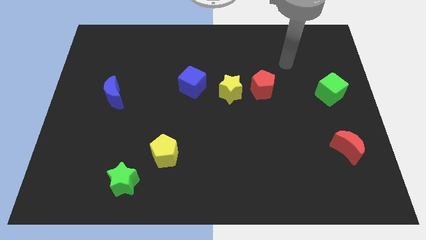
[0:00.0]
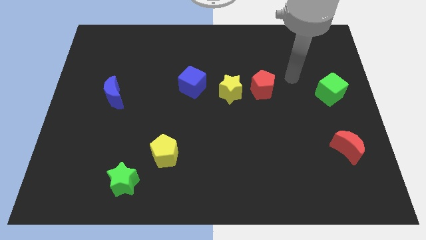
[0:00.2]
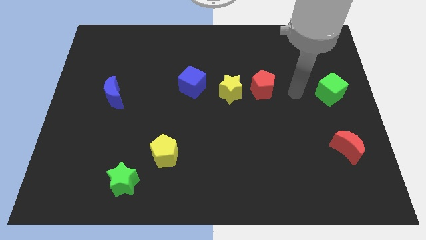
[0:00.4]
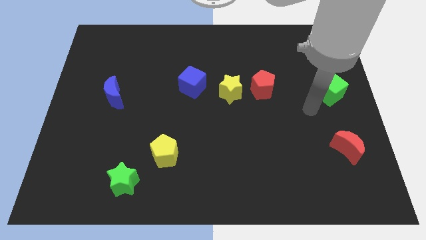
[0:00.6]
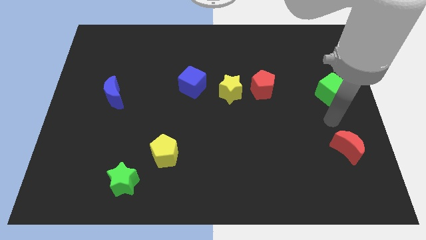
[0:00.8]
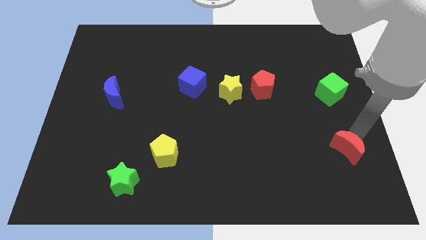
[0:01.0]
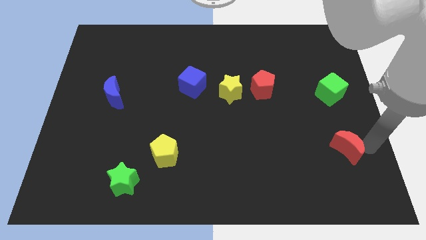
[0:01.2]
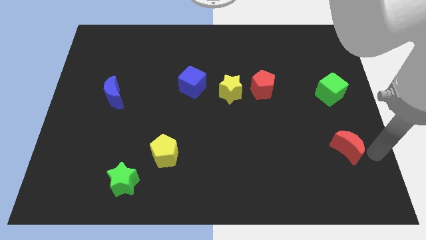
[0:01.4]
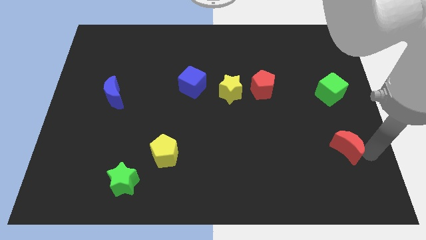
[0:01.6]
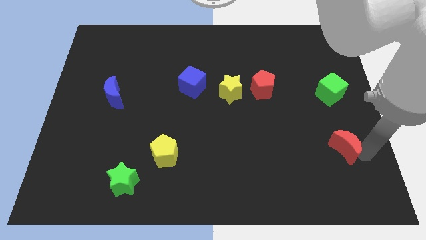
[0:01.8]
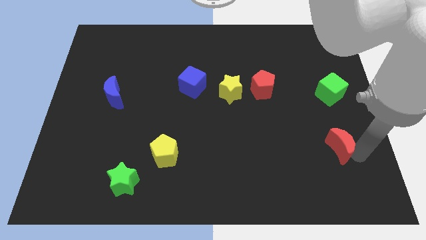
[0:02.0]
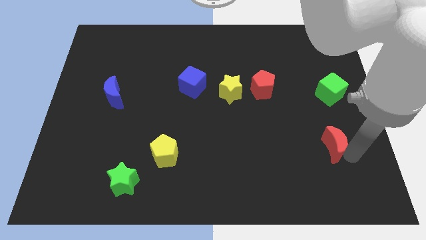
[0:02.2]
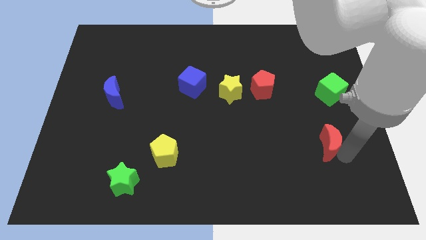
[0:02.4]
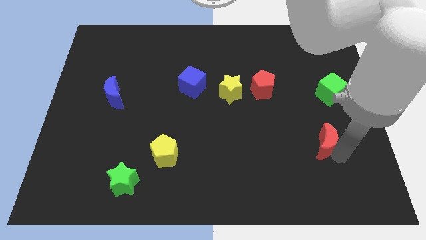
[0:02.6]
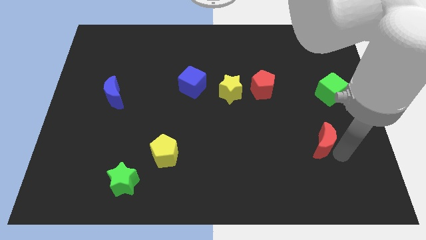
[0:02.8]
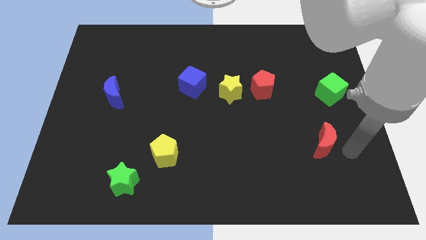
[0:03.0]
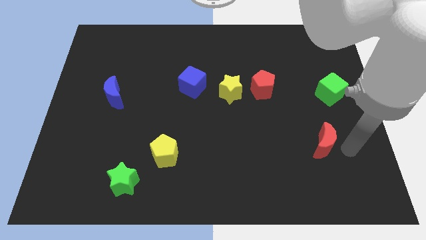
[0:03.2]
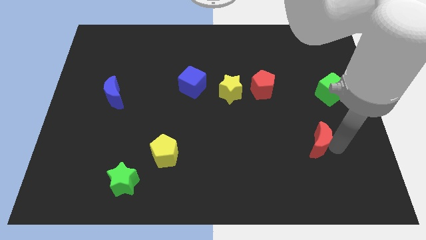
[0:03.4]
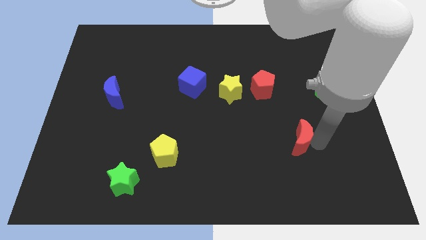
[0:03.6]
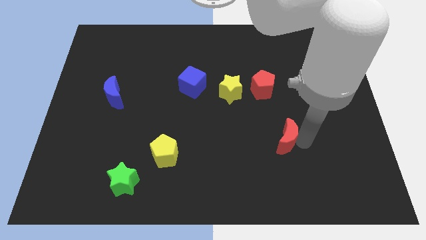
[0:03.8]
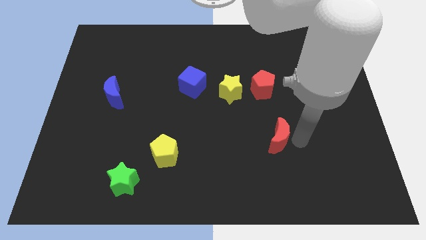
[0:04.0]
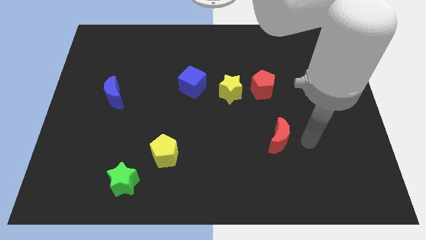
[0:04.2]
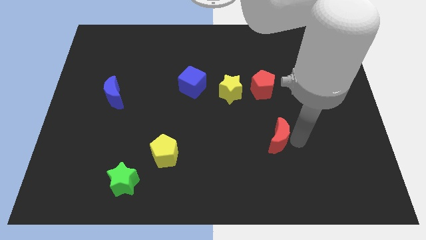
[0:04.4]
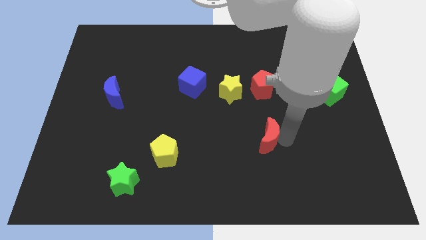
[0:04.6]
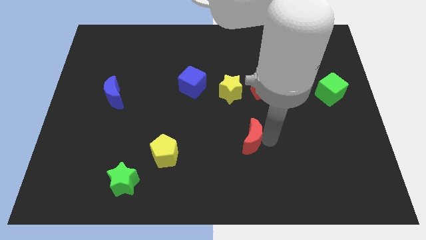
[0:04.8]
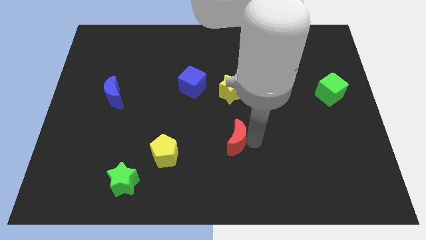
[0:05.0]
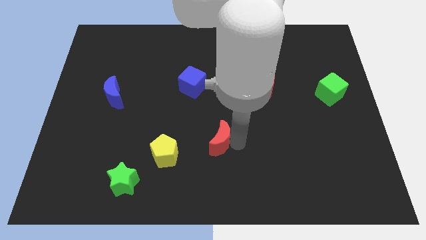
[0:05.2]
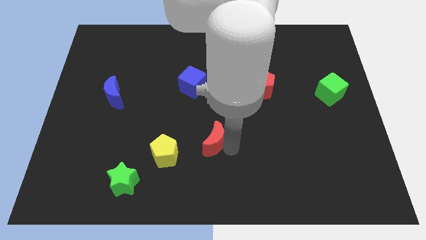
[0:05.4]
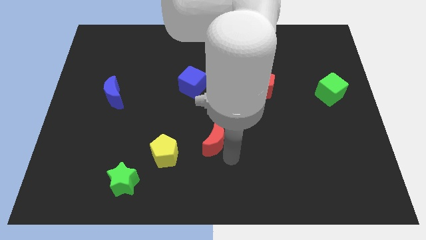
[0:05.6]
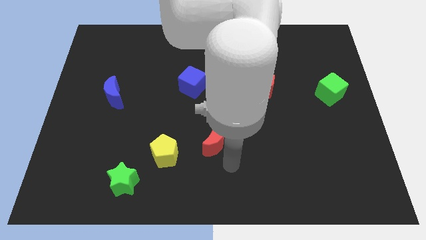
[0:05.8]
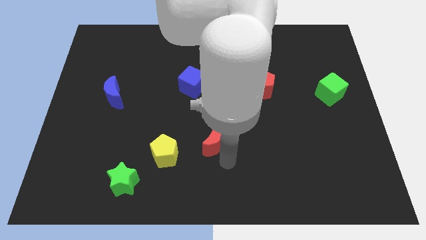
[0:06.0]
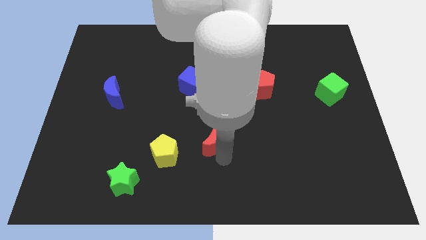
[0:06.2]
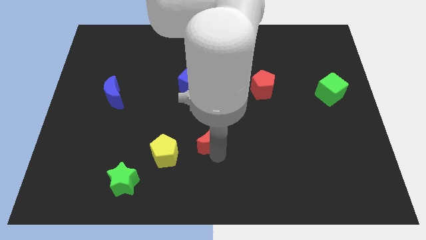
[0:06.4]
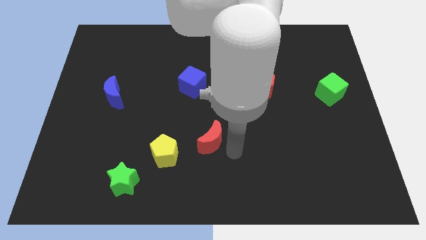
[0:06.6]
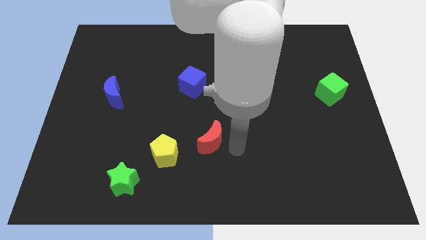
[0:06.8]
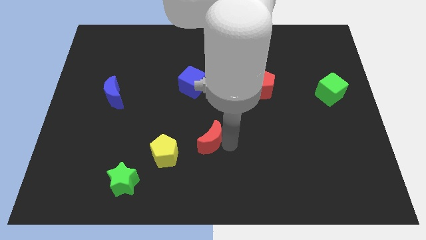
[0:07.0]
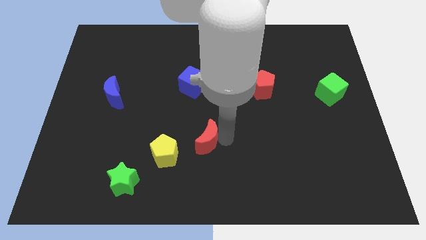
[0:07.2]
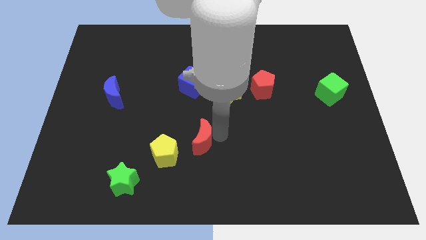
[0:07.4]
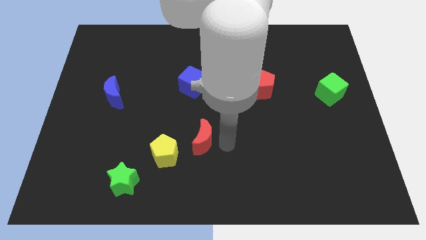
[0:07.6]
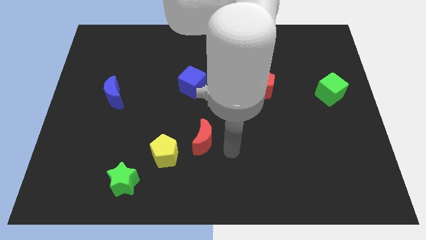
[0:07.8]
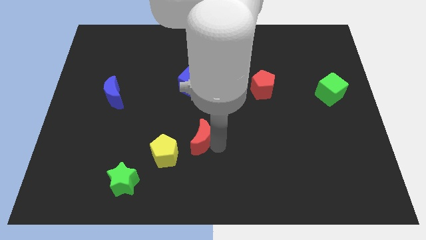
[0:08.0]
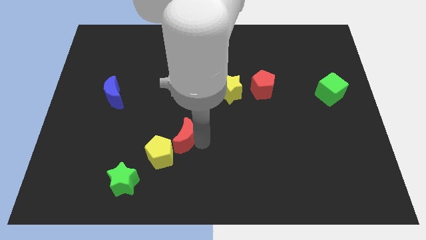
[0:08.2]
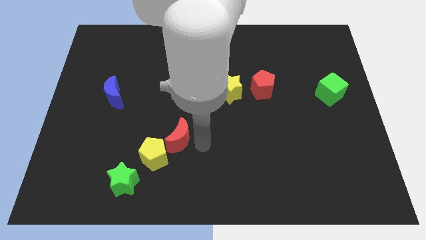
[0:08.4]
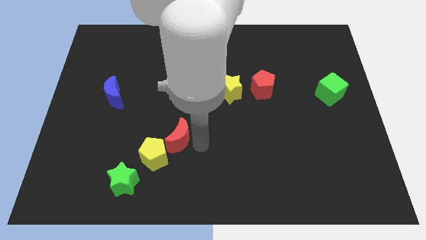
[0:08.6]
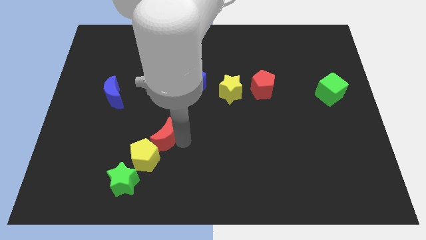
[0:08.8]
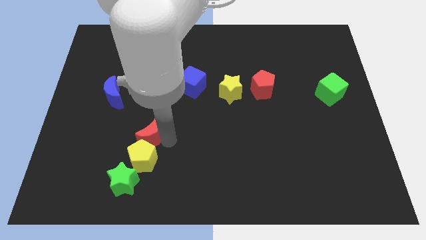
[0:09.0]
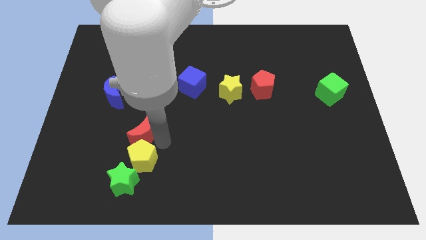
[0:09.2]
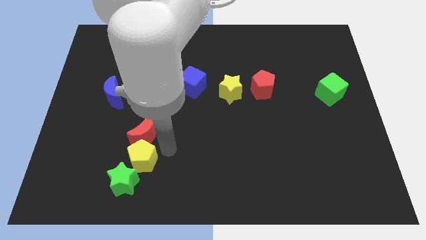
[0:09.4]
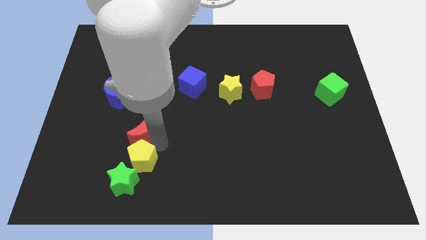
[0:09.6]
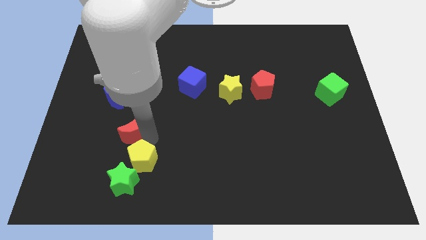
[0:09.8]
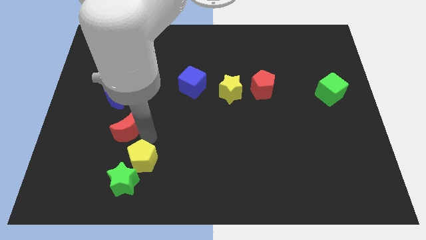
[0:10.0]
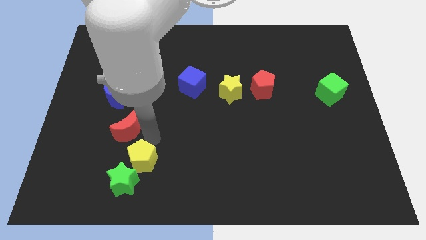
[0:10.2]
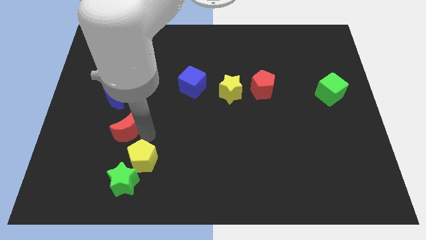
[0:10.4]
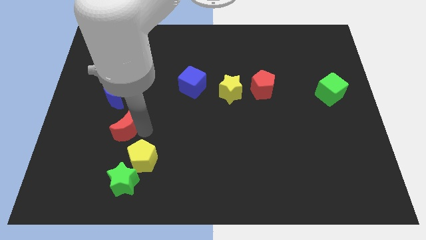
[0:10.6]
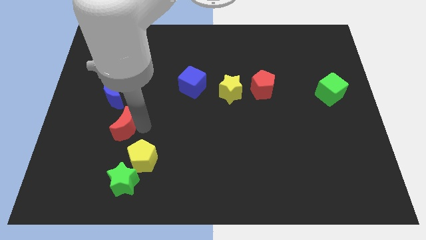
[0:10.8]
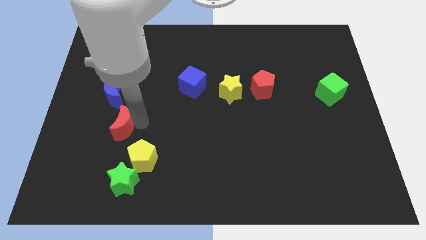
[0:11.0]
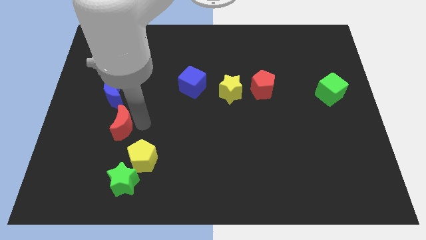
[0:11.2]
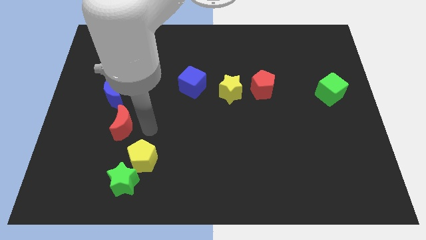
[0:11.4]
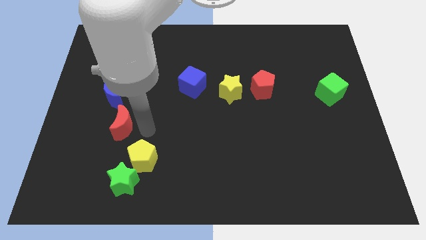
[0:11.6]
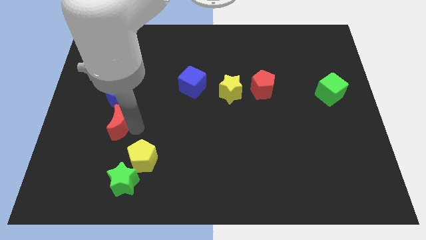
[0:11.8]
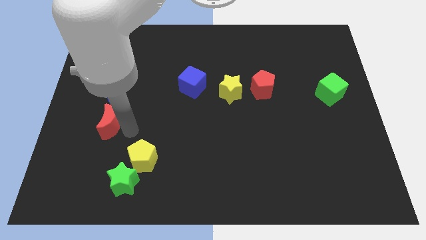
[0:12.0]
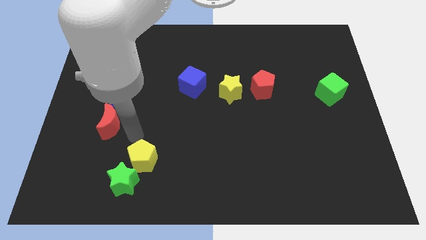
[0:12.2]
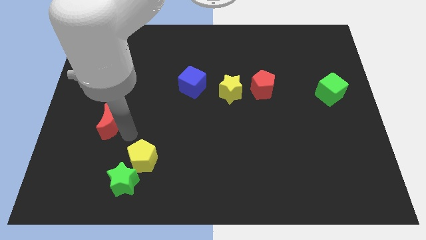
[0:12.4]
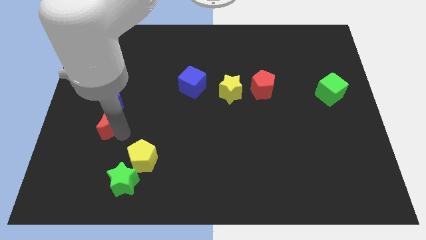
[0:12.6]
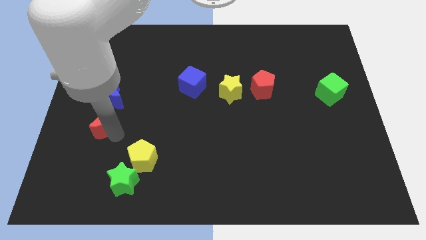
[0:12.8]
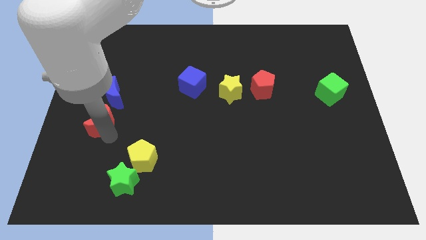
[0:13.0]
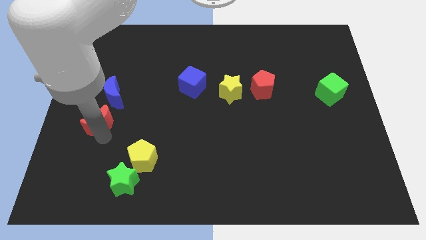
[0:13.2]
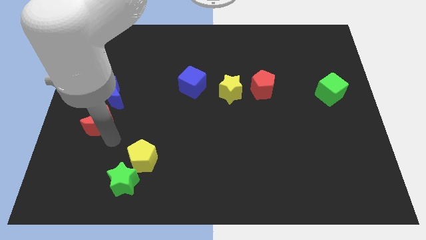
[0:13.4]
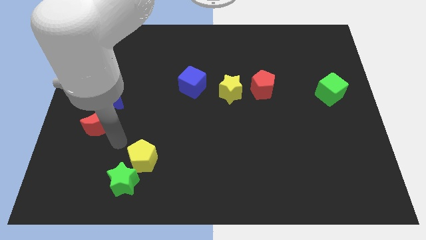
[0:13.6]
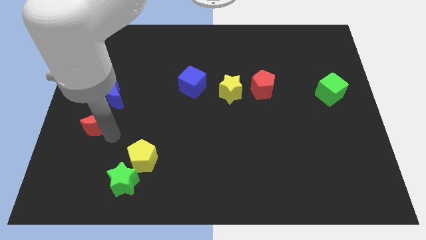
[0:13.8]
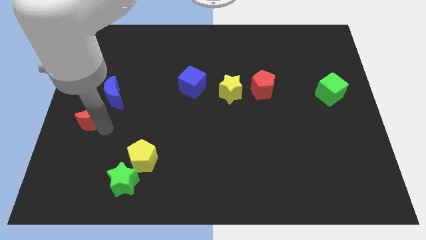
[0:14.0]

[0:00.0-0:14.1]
put the red moon to the left side of the board

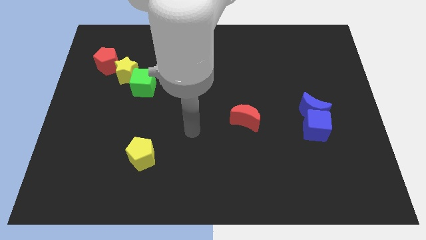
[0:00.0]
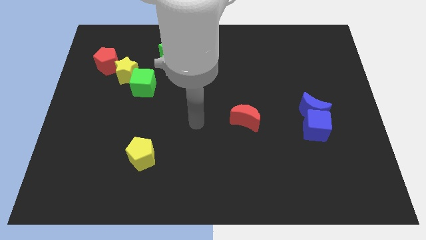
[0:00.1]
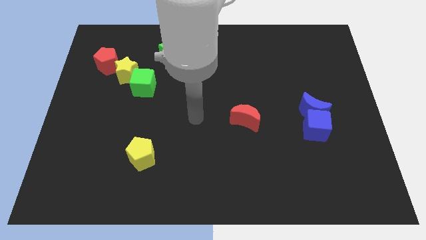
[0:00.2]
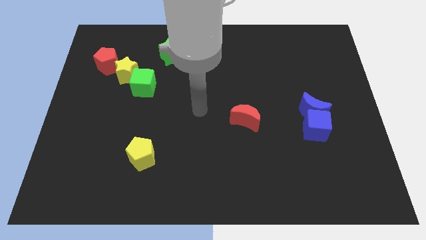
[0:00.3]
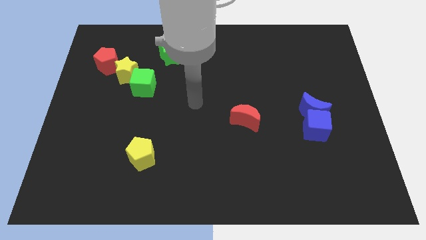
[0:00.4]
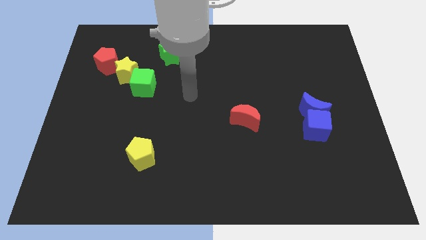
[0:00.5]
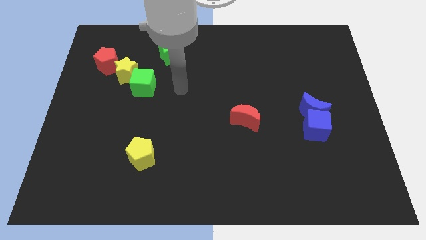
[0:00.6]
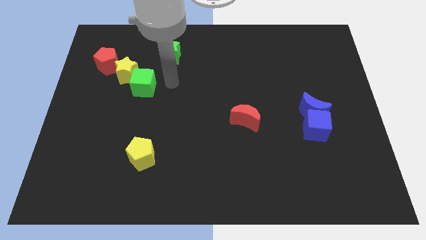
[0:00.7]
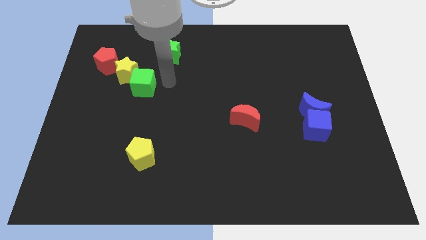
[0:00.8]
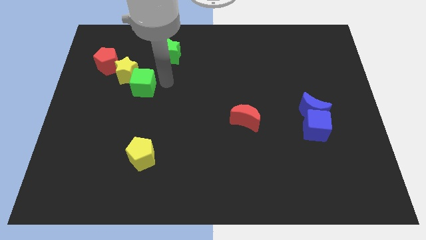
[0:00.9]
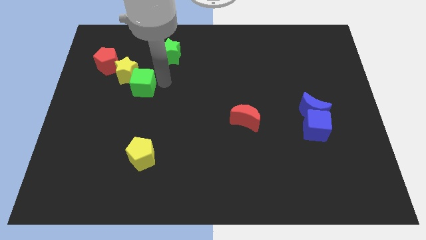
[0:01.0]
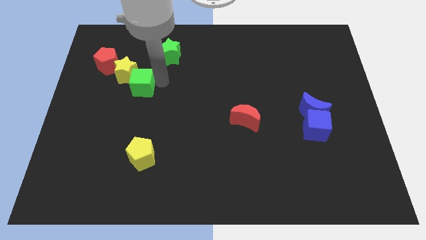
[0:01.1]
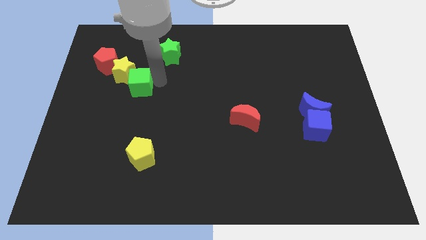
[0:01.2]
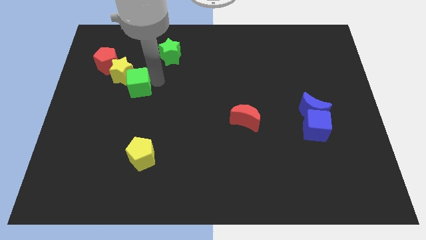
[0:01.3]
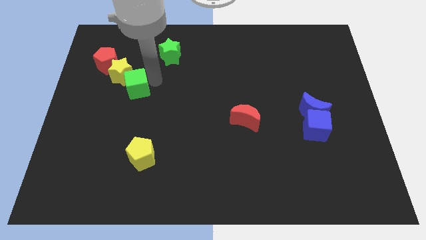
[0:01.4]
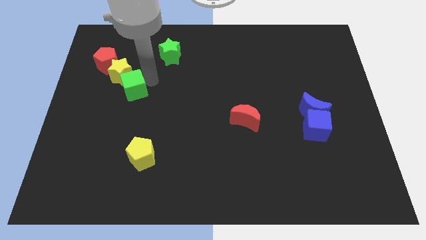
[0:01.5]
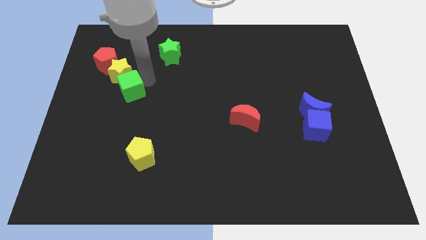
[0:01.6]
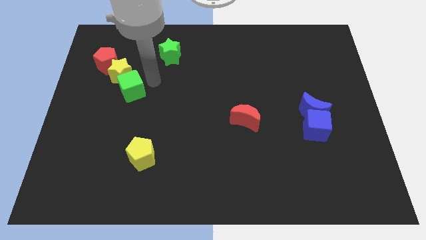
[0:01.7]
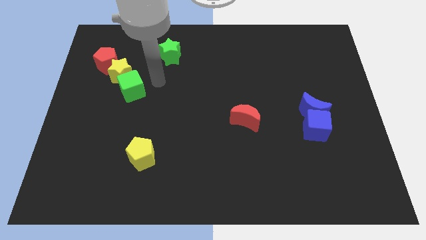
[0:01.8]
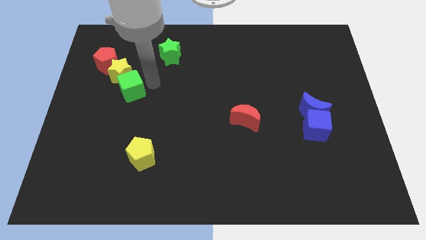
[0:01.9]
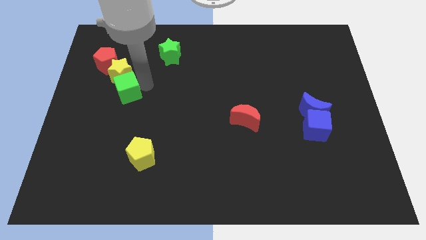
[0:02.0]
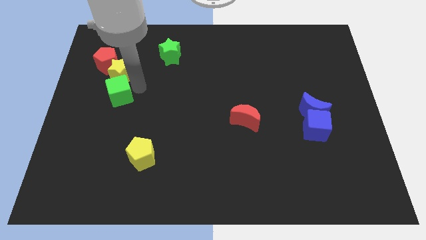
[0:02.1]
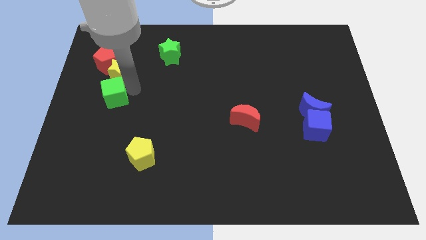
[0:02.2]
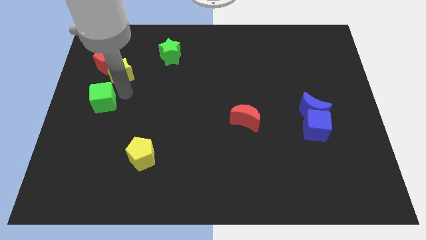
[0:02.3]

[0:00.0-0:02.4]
push the green cube to the left side
